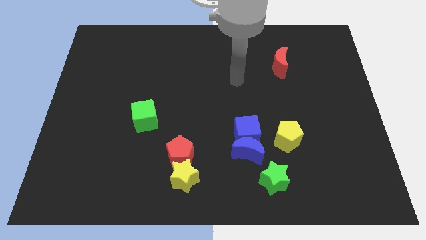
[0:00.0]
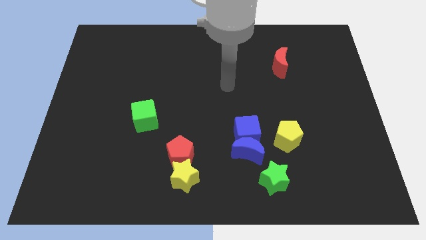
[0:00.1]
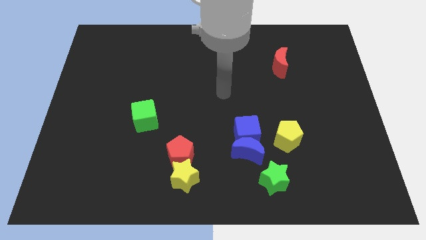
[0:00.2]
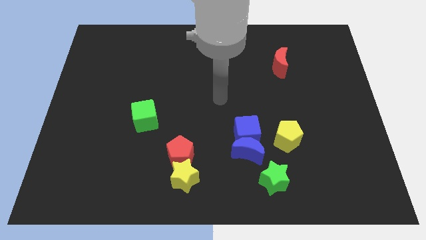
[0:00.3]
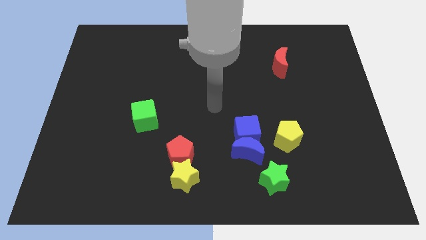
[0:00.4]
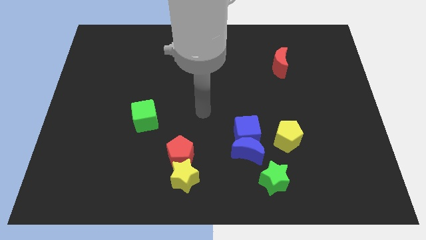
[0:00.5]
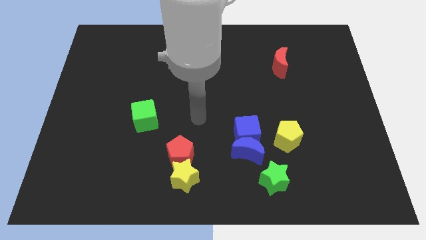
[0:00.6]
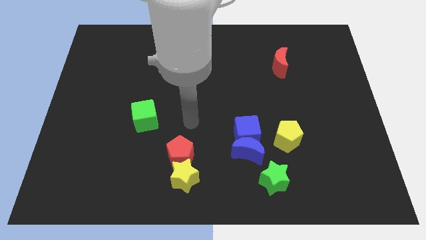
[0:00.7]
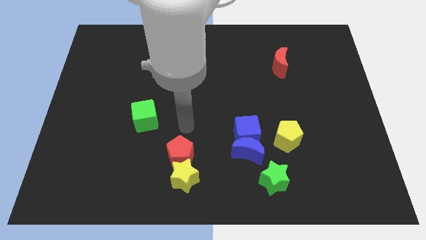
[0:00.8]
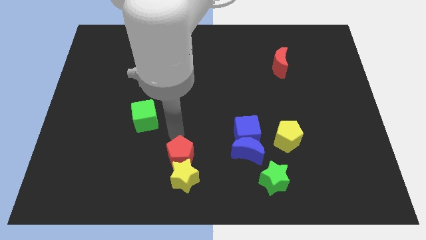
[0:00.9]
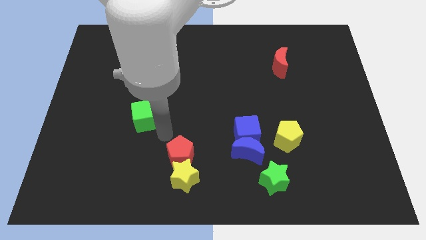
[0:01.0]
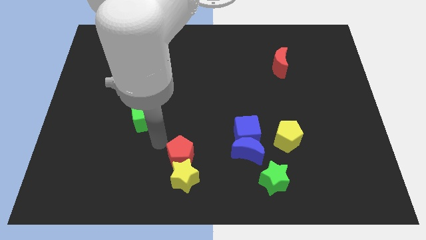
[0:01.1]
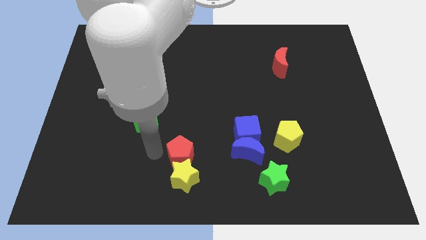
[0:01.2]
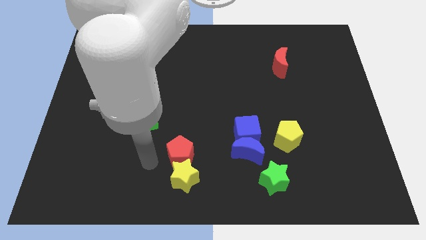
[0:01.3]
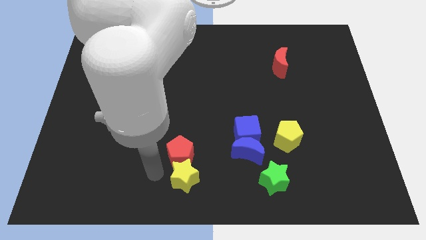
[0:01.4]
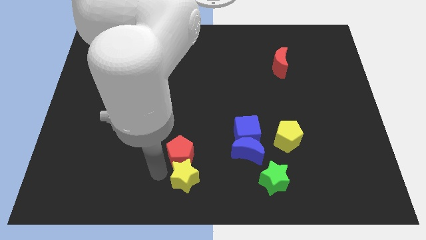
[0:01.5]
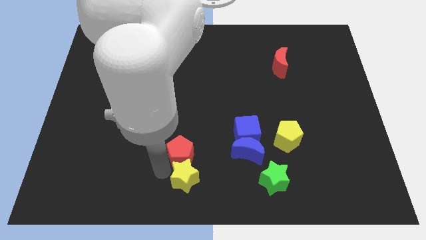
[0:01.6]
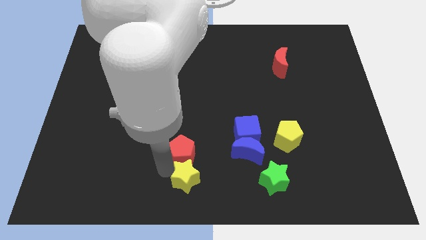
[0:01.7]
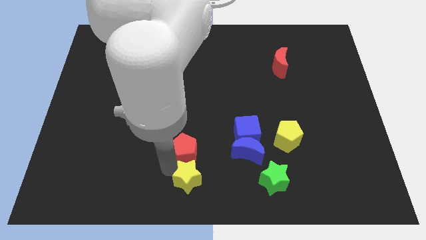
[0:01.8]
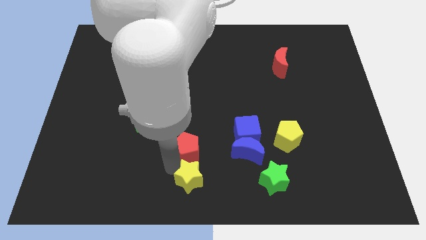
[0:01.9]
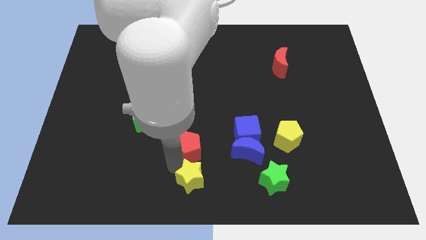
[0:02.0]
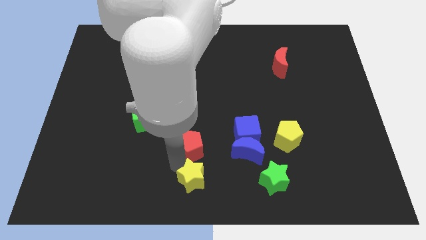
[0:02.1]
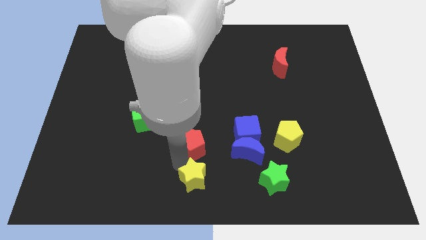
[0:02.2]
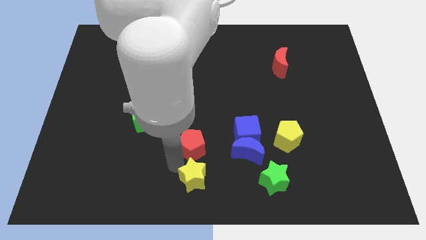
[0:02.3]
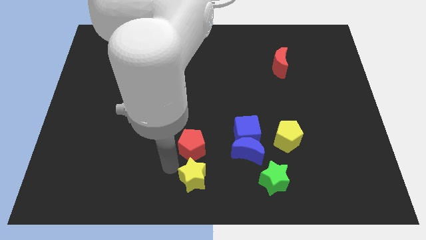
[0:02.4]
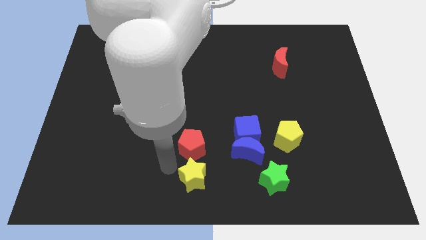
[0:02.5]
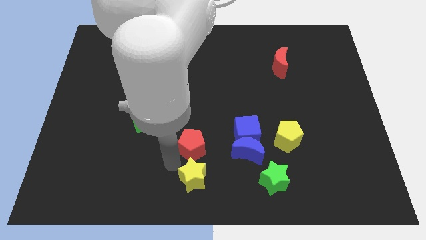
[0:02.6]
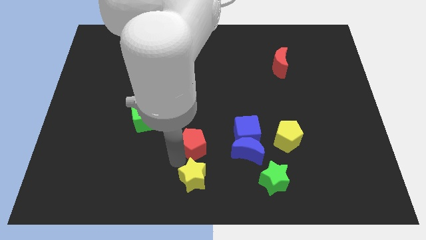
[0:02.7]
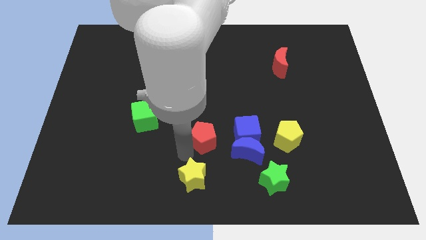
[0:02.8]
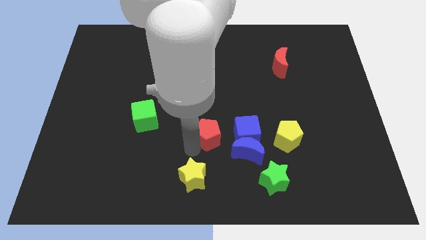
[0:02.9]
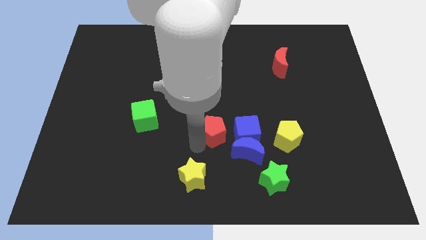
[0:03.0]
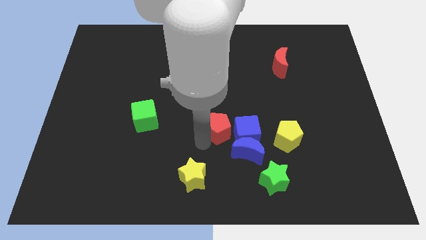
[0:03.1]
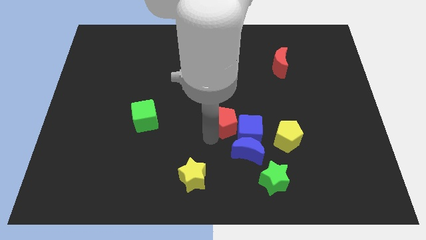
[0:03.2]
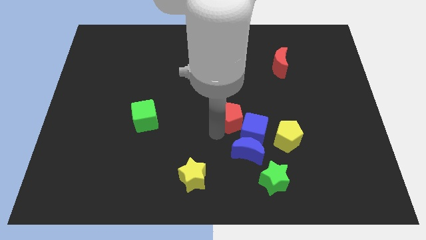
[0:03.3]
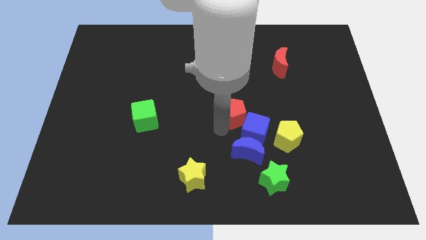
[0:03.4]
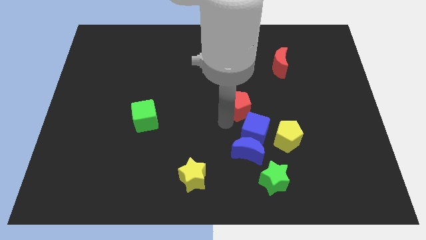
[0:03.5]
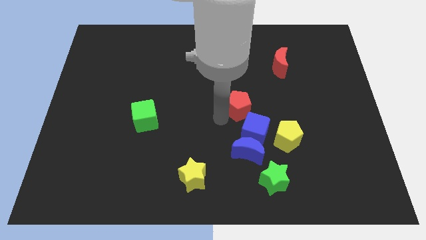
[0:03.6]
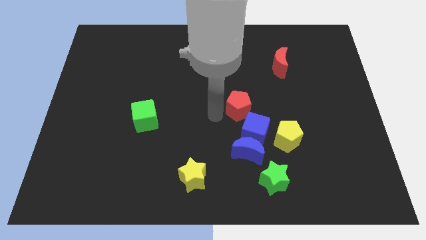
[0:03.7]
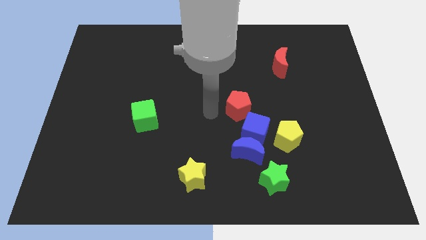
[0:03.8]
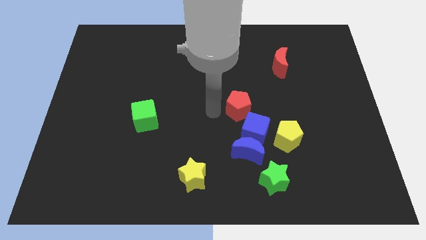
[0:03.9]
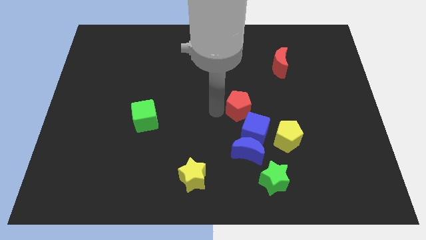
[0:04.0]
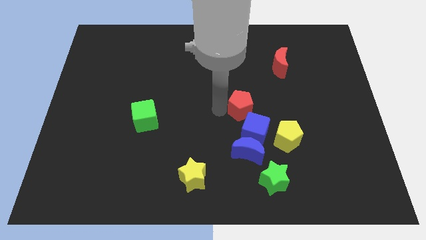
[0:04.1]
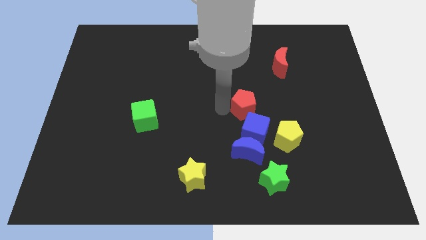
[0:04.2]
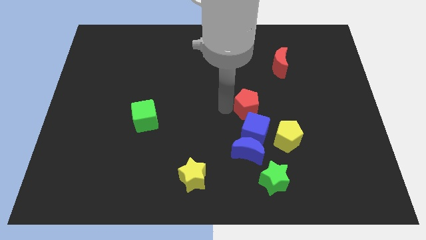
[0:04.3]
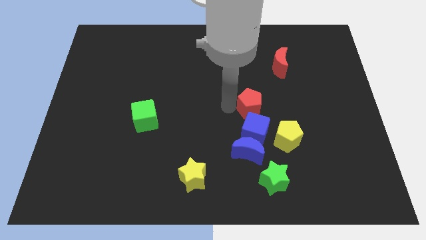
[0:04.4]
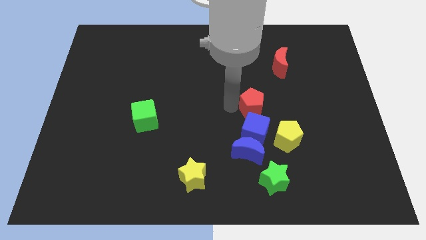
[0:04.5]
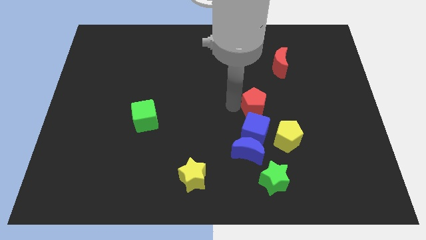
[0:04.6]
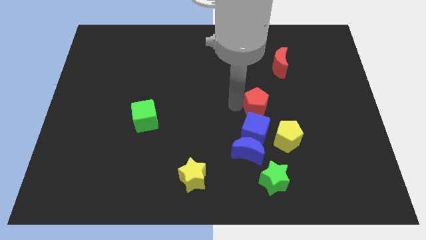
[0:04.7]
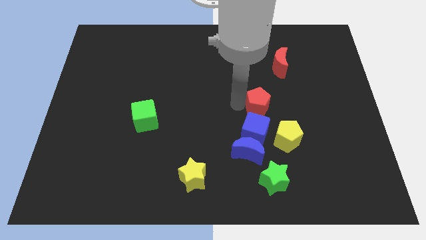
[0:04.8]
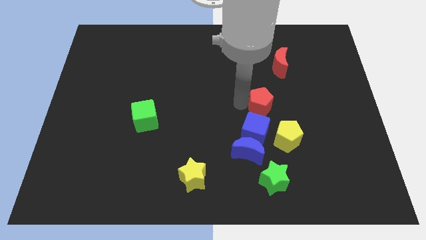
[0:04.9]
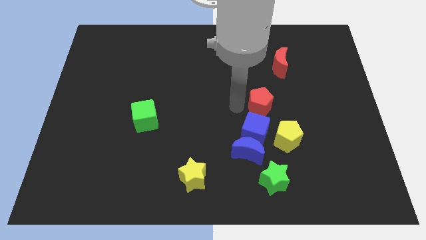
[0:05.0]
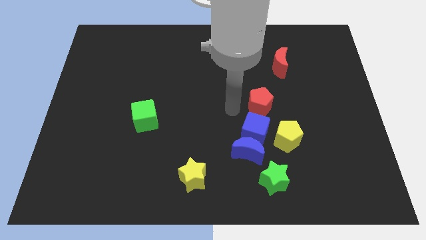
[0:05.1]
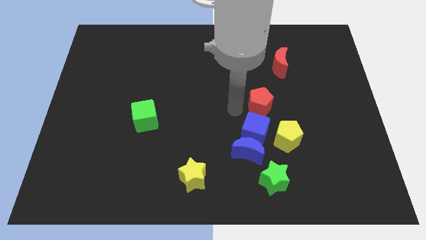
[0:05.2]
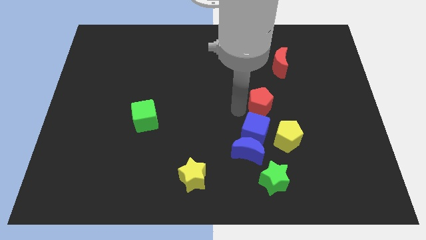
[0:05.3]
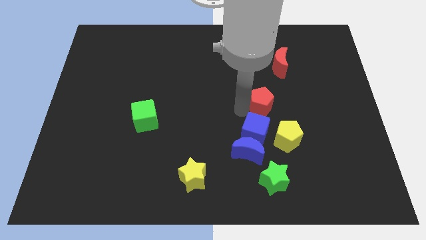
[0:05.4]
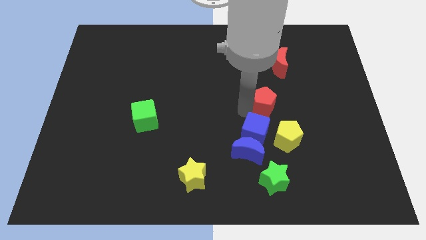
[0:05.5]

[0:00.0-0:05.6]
move the red pentagon to the top of the yellow pentagon

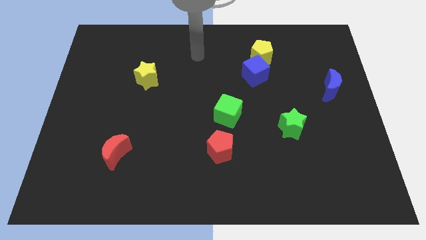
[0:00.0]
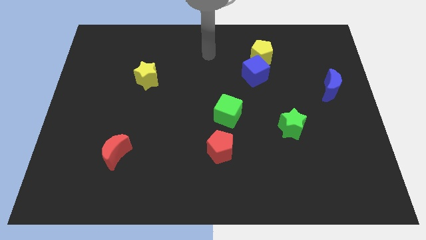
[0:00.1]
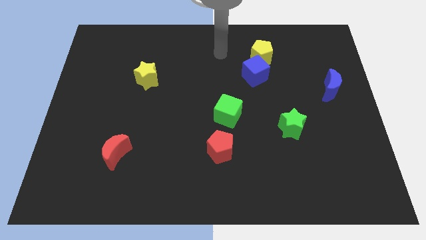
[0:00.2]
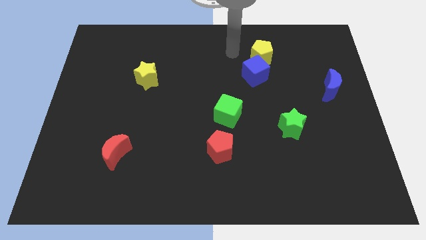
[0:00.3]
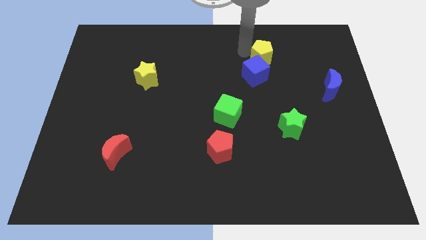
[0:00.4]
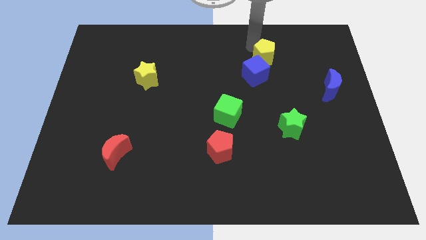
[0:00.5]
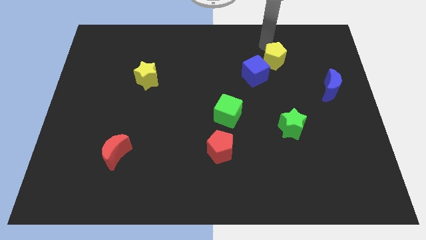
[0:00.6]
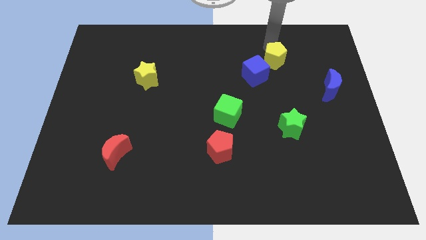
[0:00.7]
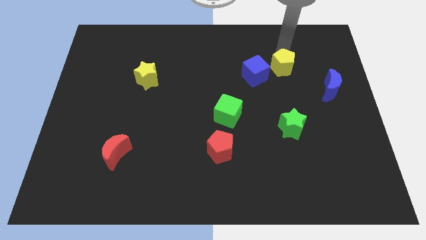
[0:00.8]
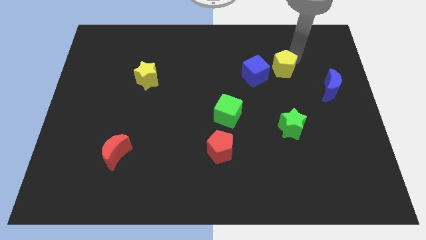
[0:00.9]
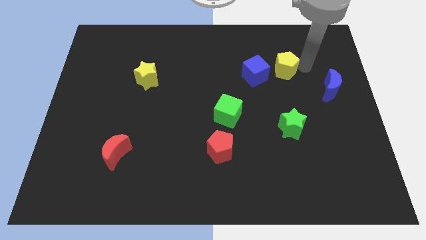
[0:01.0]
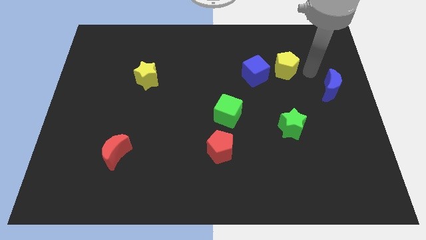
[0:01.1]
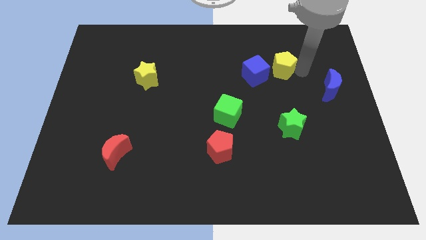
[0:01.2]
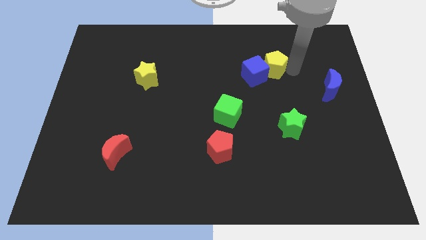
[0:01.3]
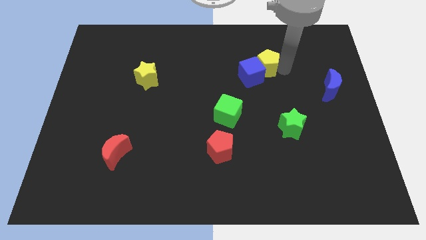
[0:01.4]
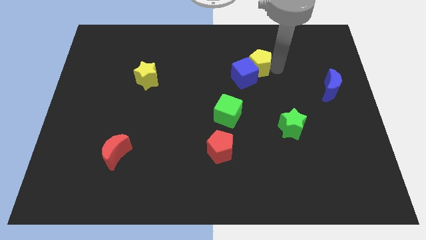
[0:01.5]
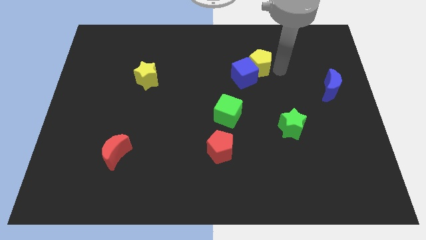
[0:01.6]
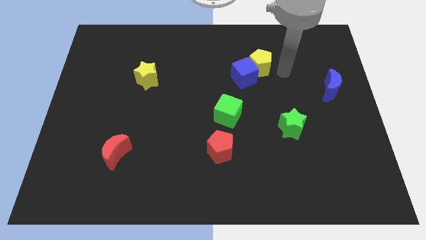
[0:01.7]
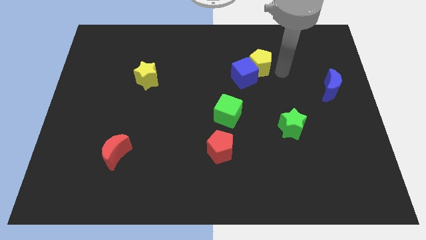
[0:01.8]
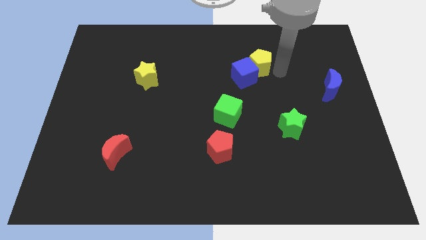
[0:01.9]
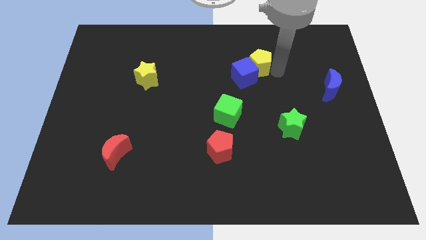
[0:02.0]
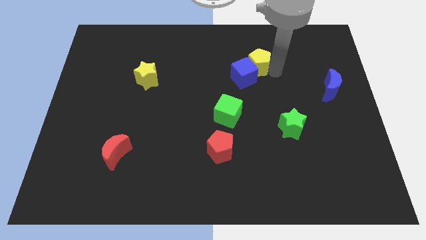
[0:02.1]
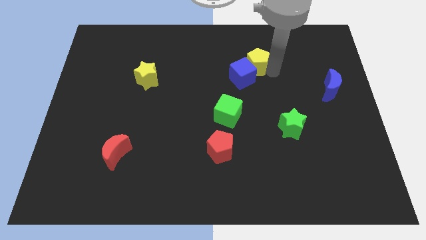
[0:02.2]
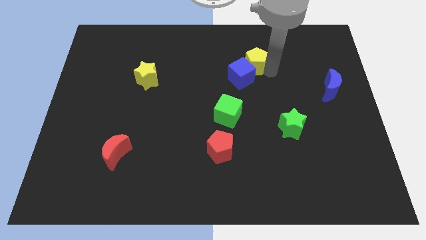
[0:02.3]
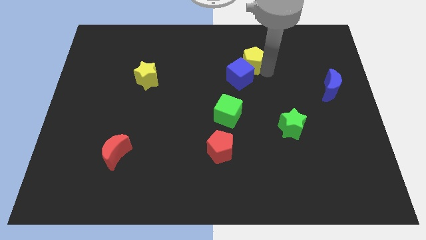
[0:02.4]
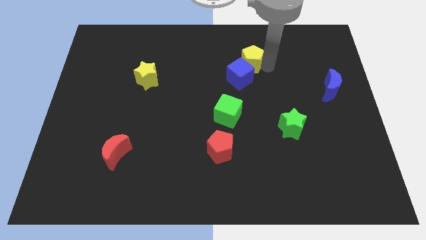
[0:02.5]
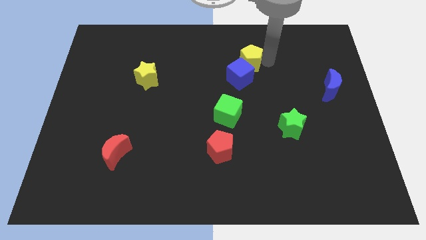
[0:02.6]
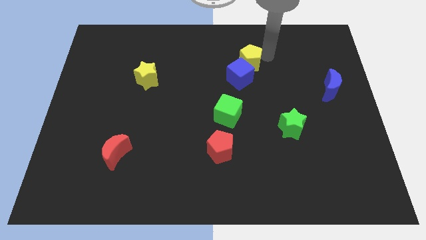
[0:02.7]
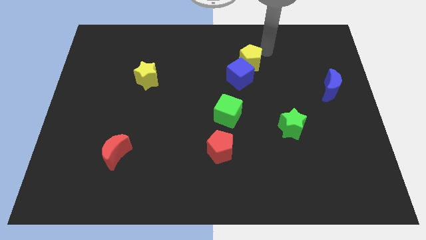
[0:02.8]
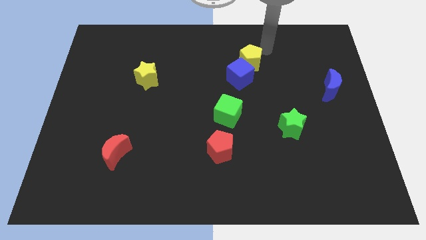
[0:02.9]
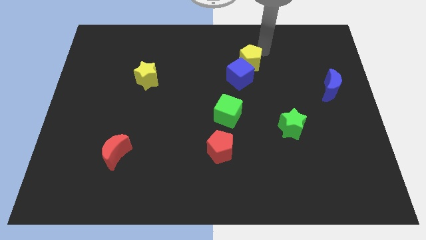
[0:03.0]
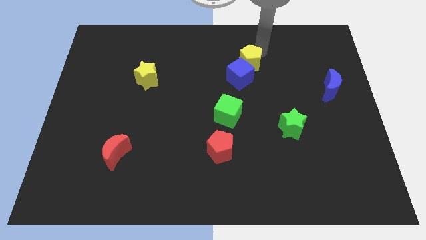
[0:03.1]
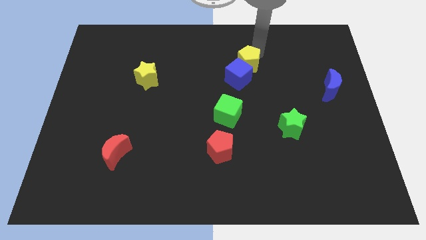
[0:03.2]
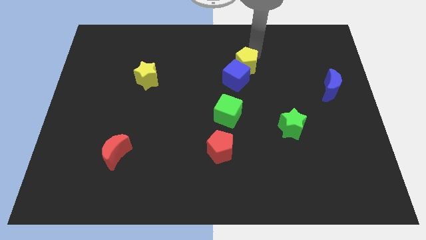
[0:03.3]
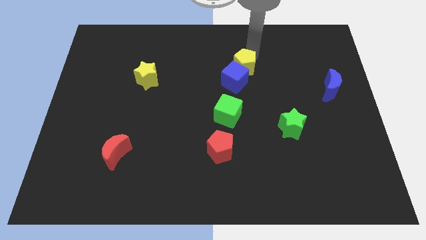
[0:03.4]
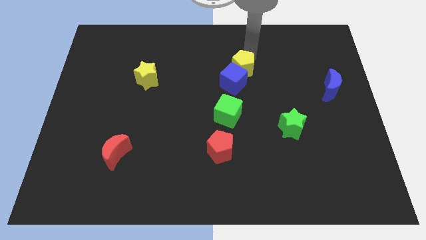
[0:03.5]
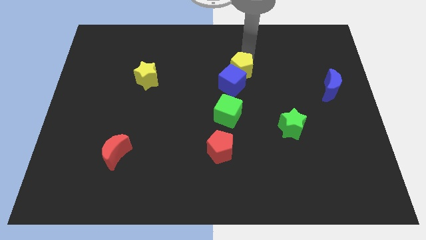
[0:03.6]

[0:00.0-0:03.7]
slide the yellow pentagon above the green cube
